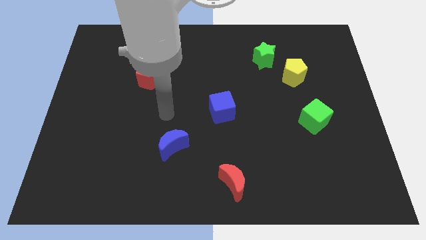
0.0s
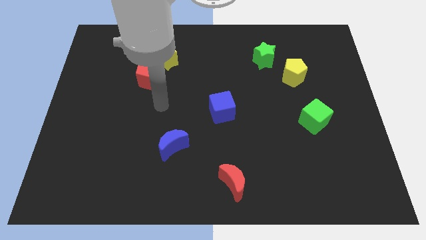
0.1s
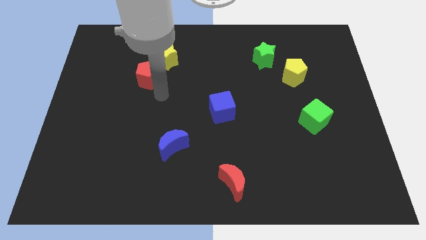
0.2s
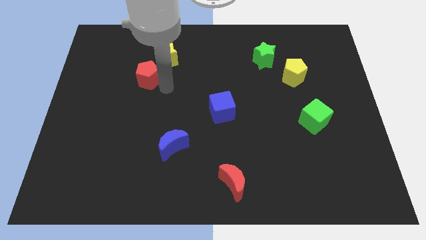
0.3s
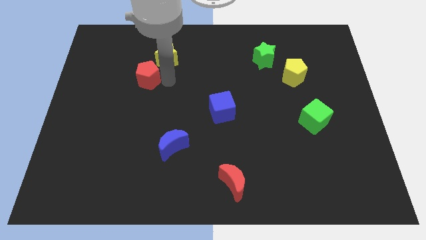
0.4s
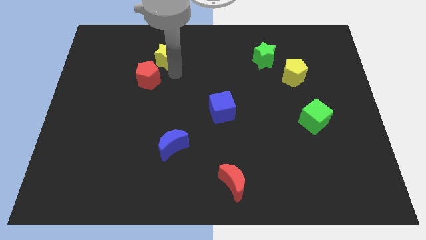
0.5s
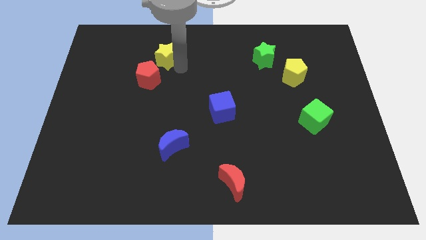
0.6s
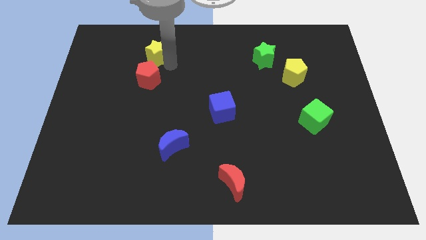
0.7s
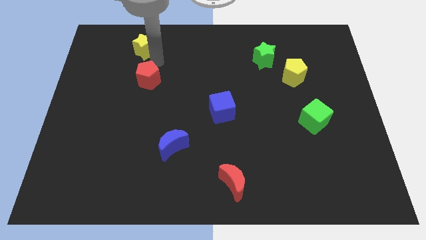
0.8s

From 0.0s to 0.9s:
move the red pentagon away from the yellow star

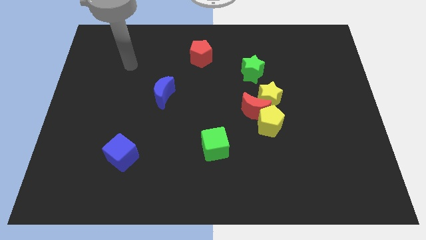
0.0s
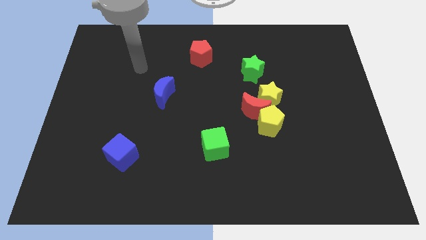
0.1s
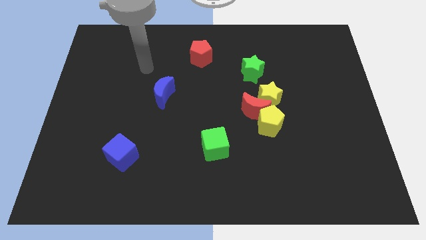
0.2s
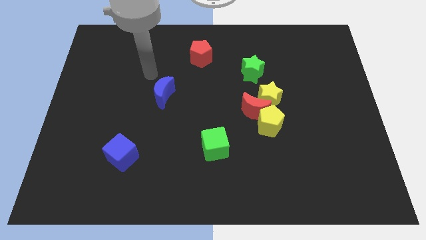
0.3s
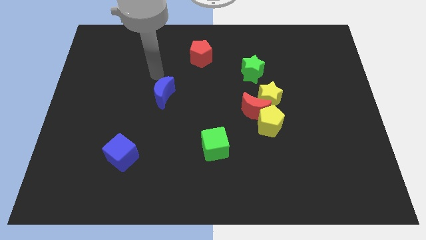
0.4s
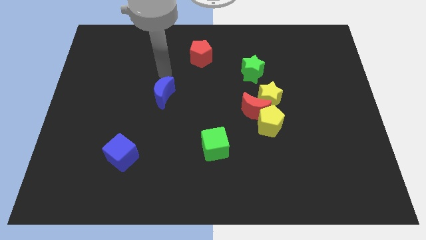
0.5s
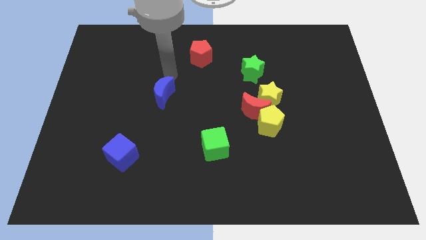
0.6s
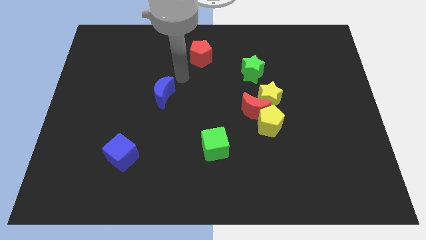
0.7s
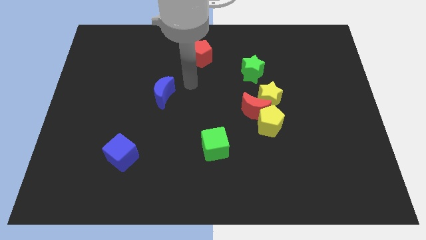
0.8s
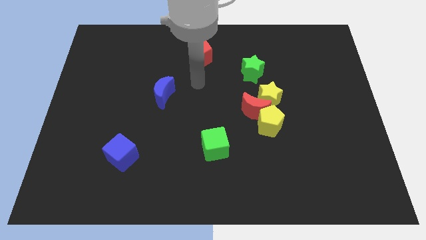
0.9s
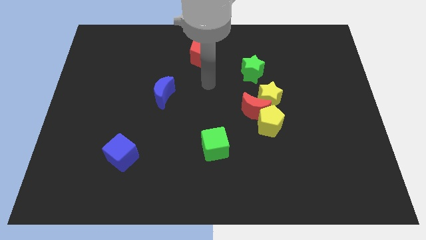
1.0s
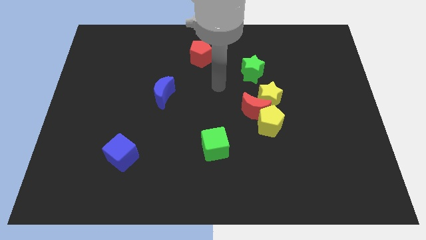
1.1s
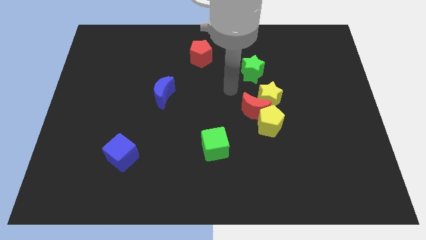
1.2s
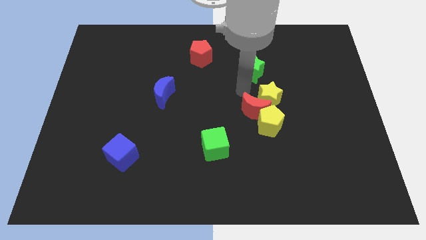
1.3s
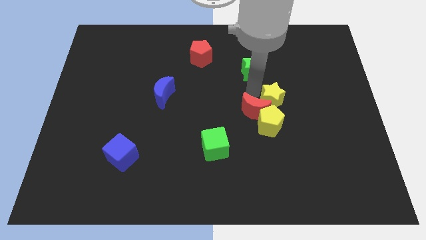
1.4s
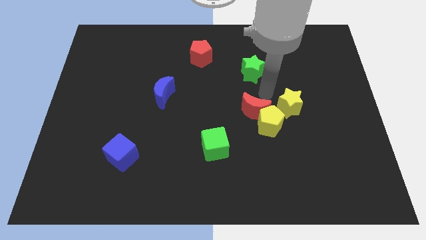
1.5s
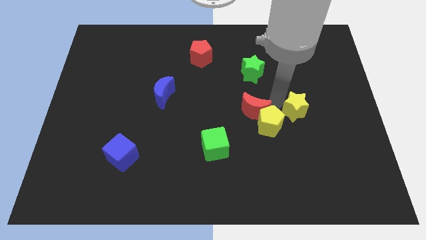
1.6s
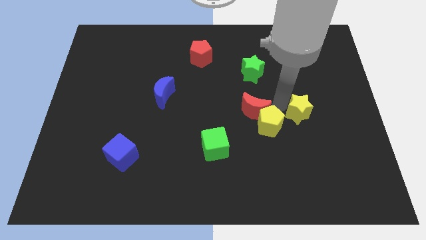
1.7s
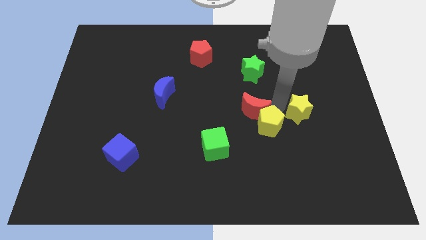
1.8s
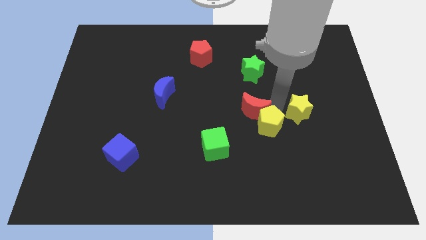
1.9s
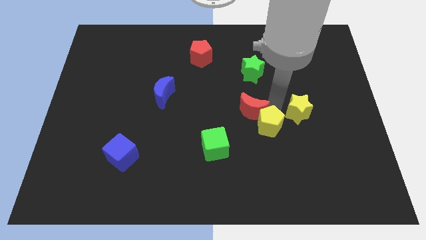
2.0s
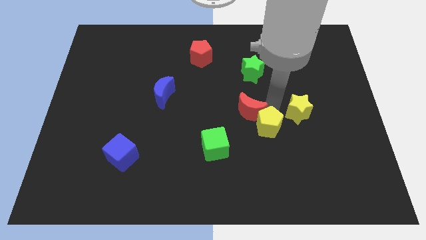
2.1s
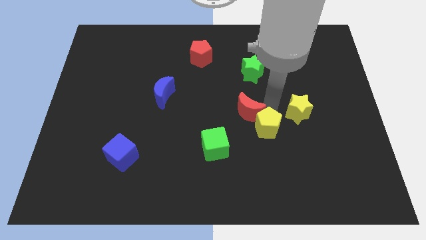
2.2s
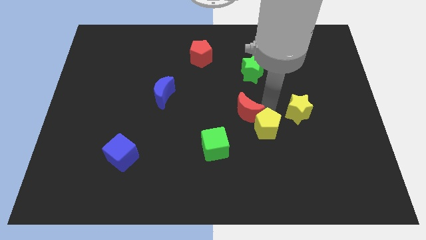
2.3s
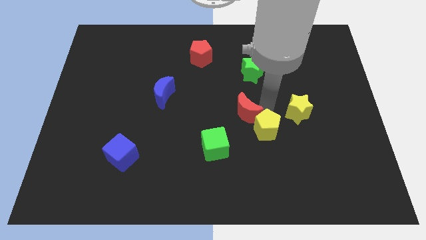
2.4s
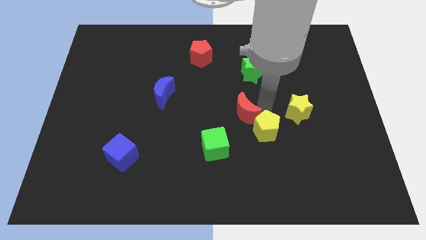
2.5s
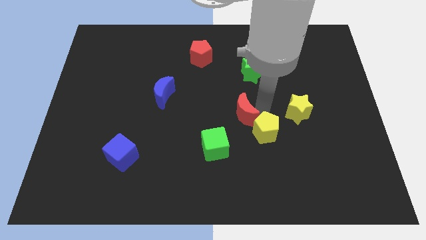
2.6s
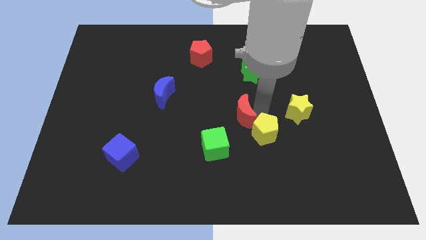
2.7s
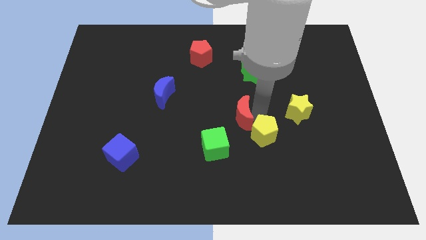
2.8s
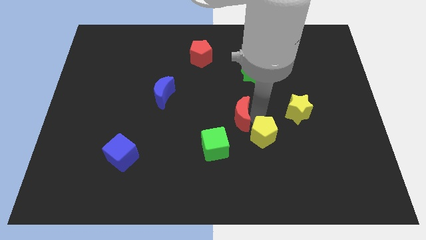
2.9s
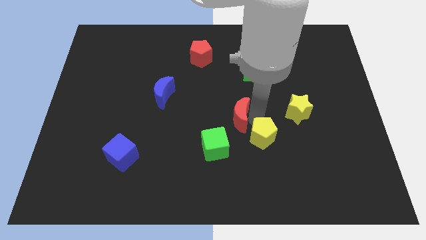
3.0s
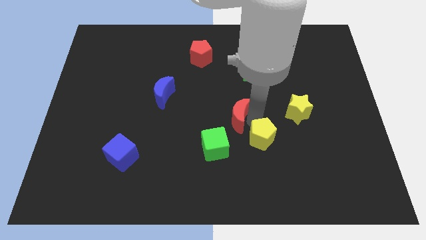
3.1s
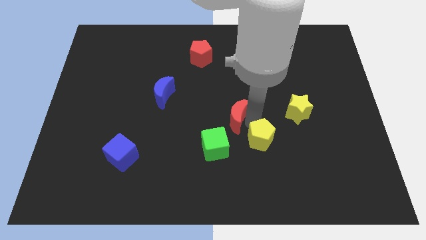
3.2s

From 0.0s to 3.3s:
separate the red moon from the yellow star and yellow pentagon

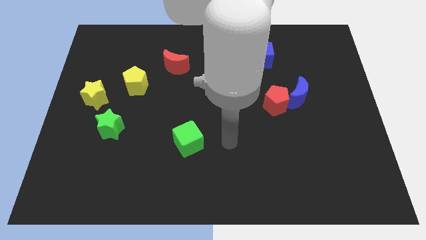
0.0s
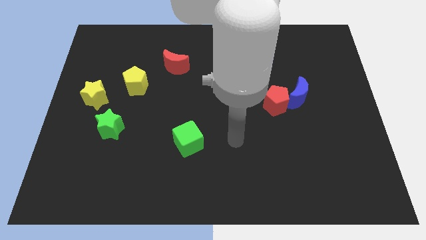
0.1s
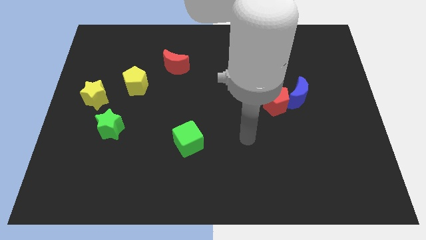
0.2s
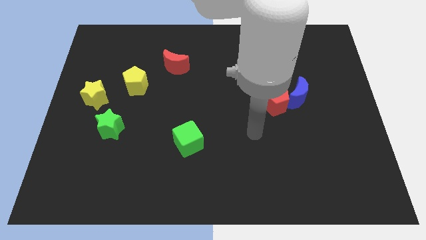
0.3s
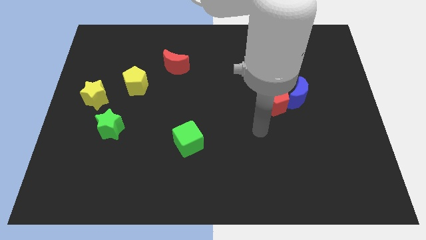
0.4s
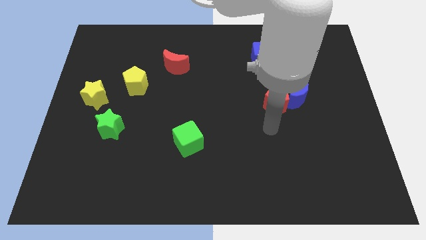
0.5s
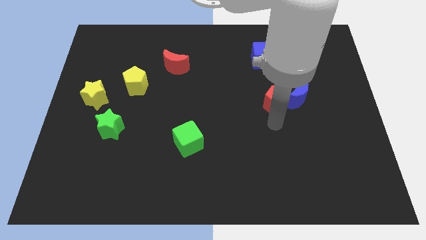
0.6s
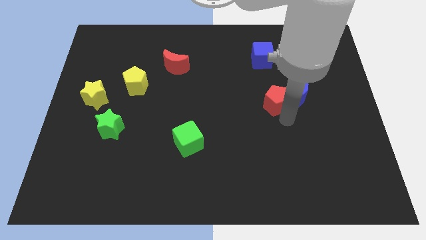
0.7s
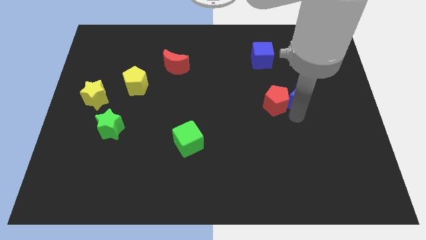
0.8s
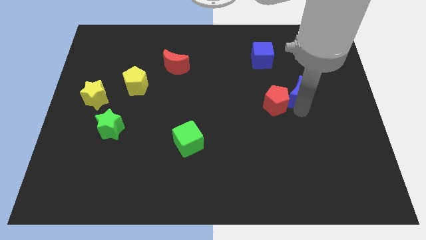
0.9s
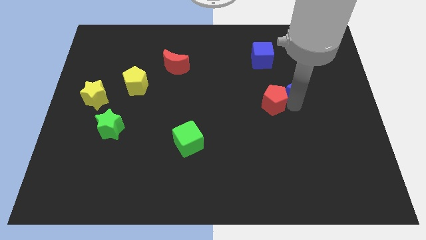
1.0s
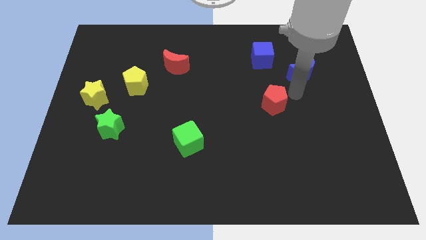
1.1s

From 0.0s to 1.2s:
pull the red pentagon apart from the blue moon

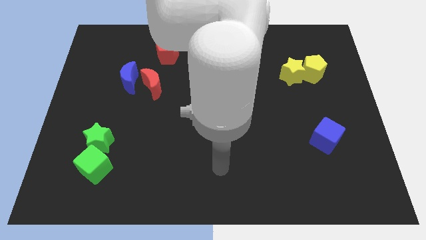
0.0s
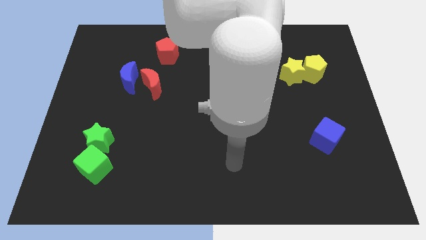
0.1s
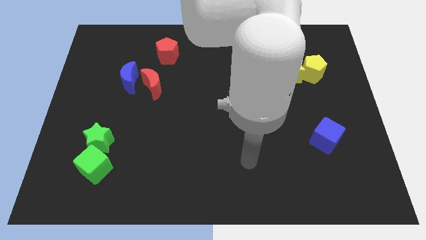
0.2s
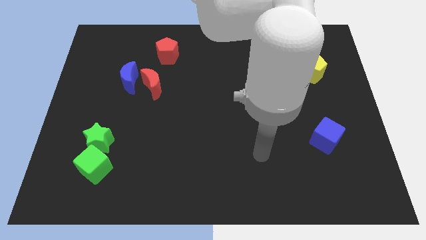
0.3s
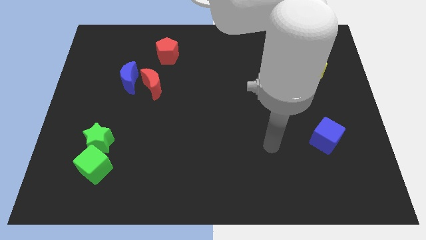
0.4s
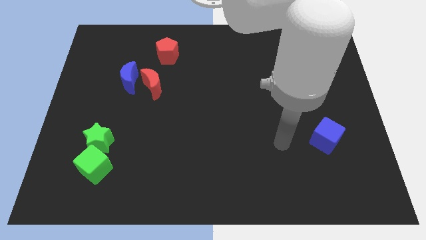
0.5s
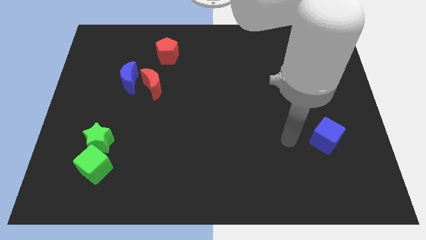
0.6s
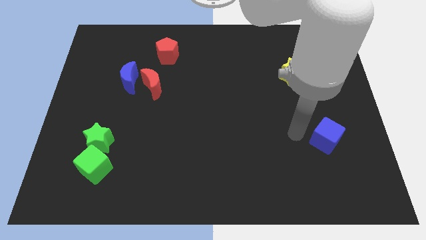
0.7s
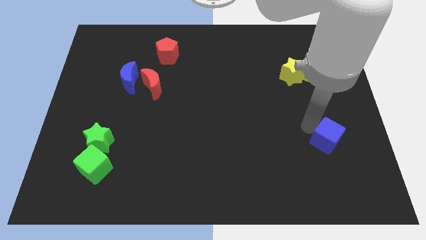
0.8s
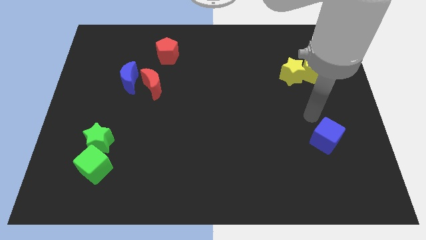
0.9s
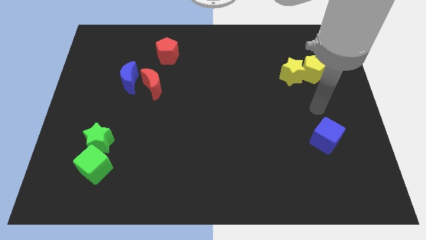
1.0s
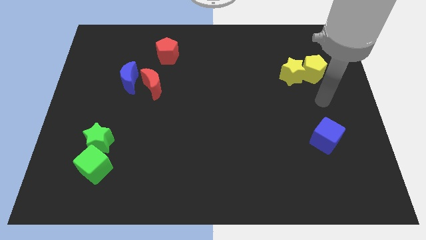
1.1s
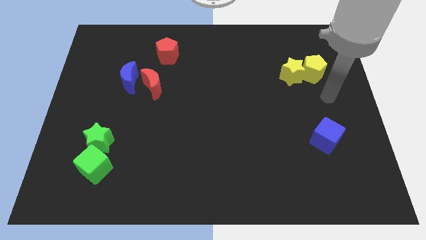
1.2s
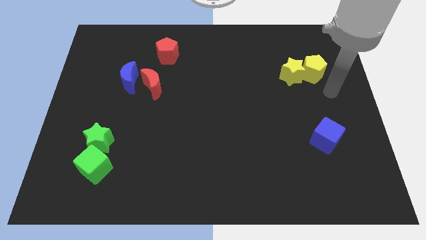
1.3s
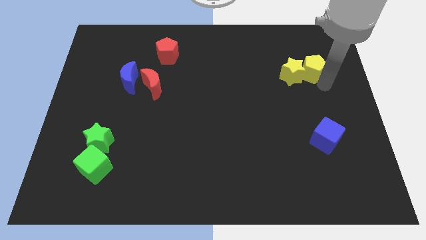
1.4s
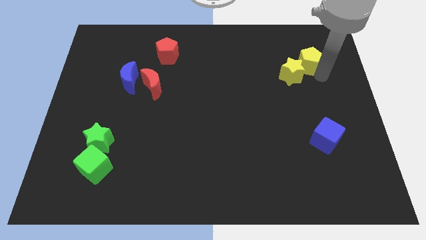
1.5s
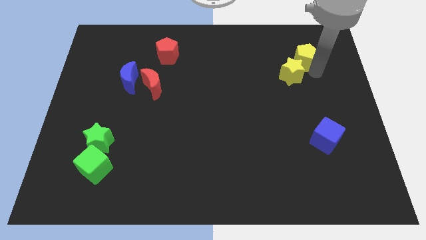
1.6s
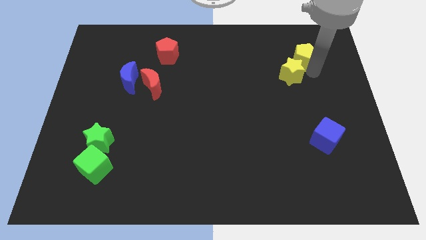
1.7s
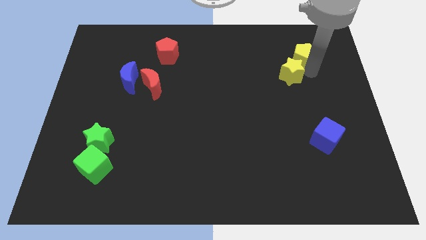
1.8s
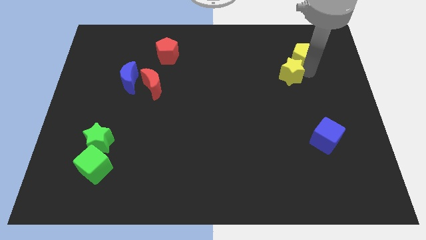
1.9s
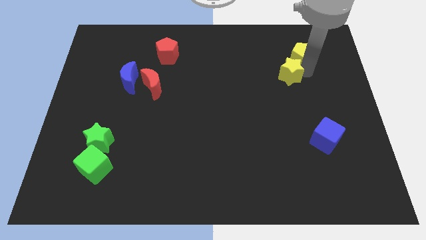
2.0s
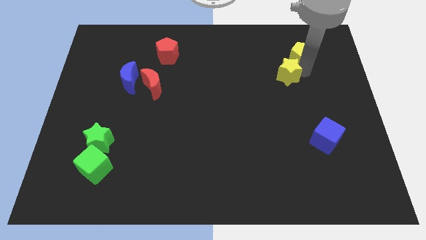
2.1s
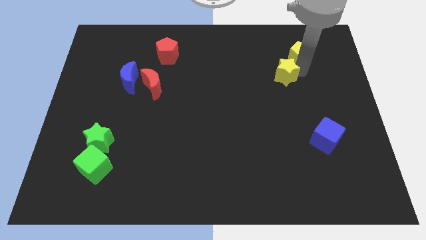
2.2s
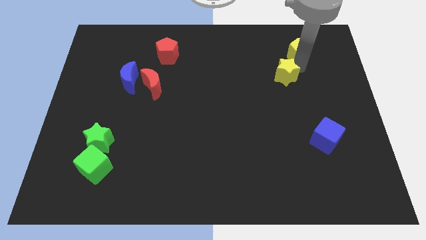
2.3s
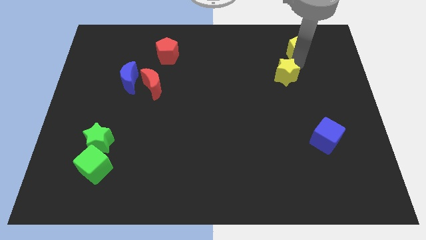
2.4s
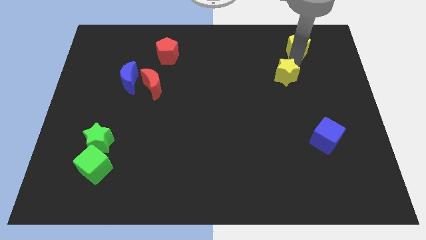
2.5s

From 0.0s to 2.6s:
separate the yellow star from the yellow pentagon

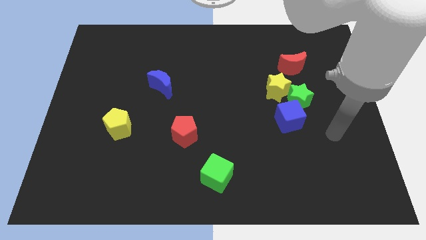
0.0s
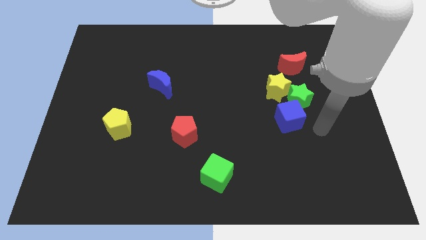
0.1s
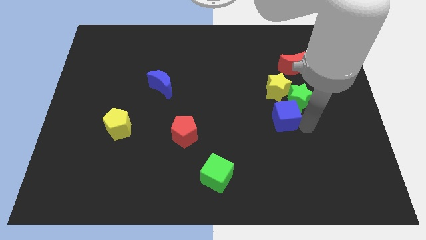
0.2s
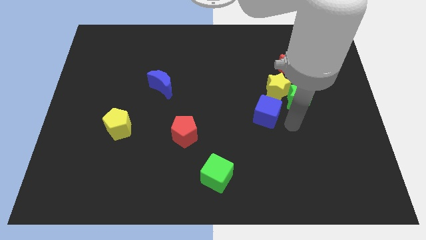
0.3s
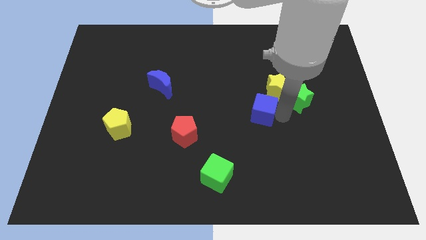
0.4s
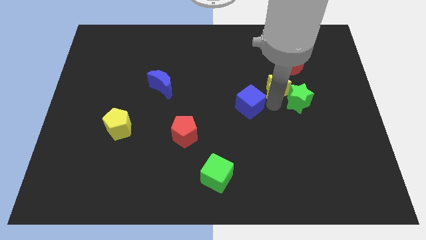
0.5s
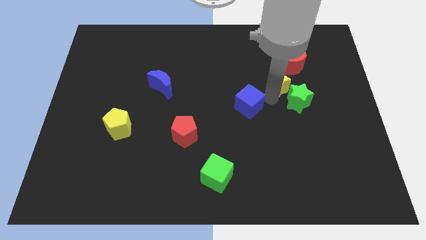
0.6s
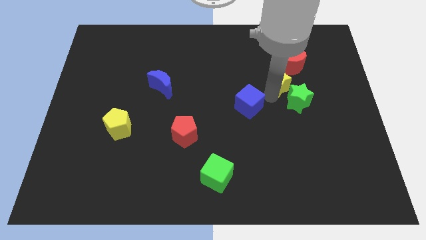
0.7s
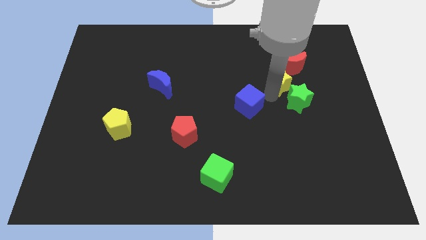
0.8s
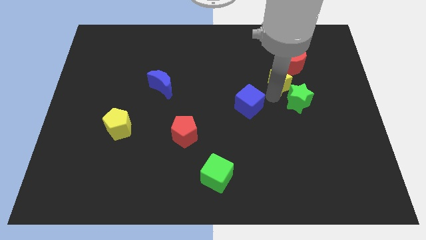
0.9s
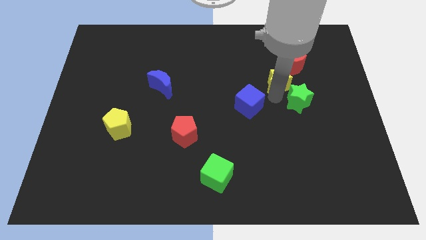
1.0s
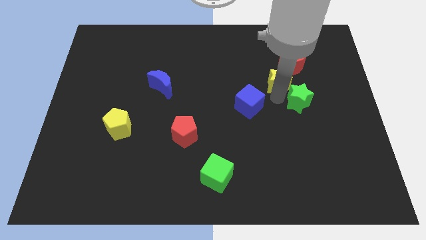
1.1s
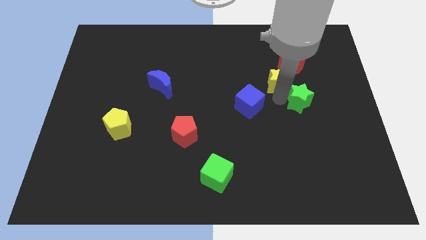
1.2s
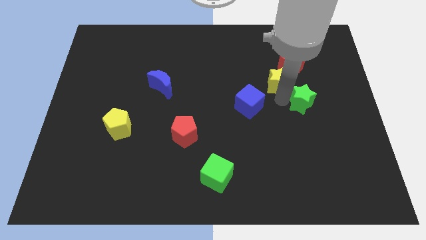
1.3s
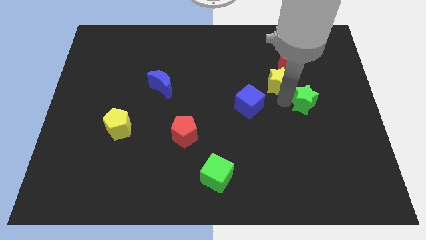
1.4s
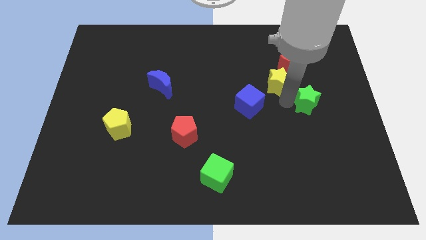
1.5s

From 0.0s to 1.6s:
pull the green star apart from the yellow star and blue cube
